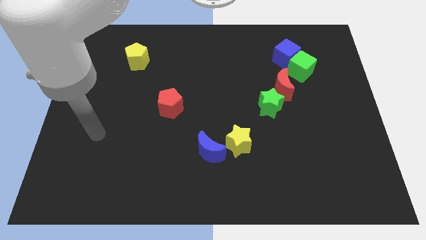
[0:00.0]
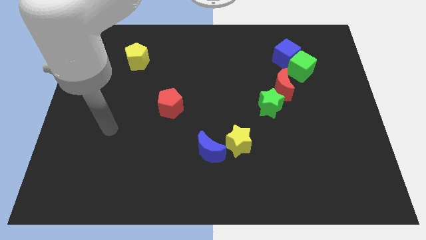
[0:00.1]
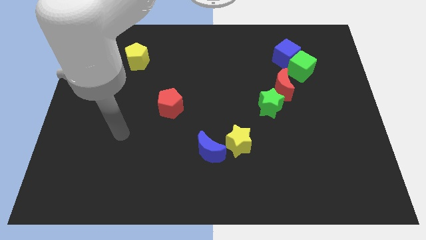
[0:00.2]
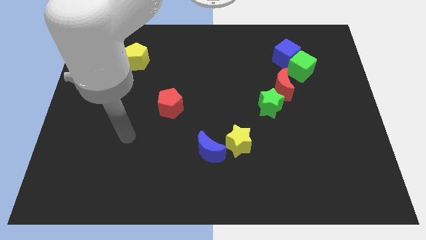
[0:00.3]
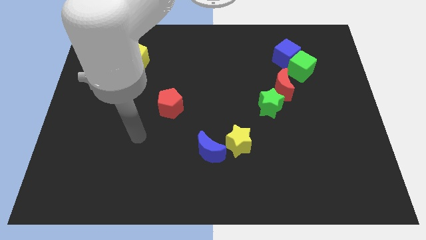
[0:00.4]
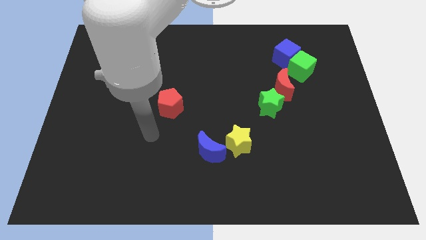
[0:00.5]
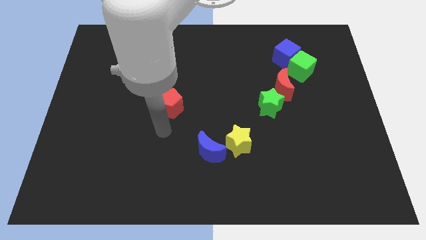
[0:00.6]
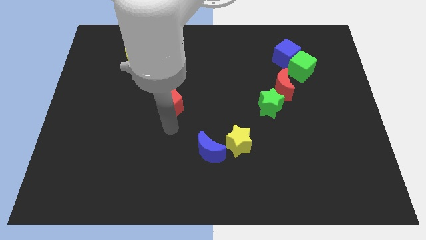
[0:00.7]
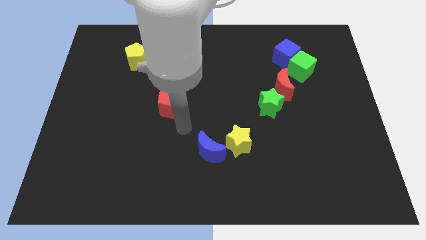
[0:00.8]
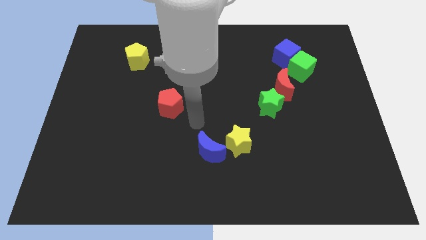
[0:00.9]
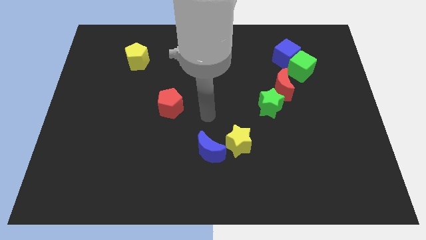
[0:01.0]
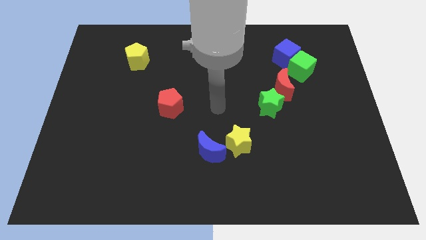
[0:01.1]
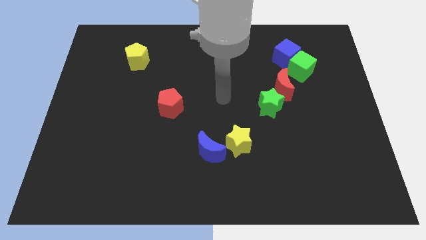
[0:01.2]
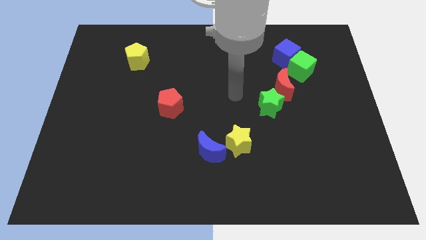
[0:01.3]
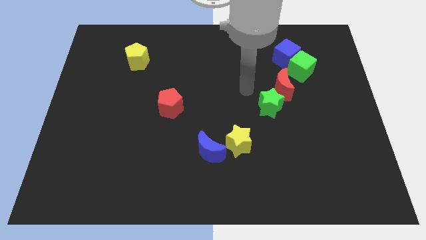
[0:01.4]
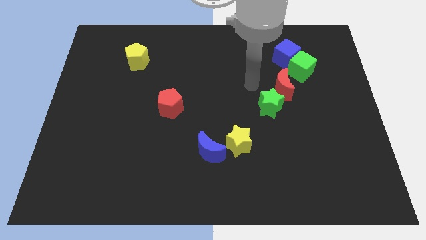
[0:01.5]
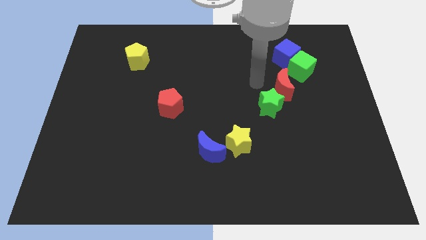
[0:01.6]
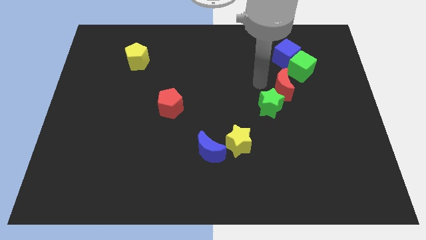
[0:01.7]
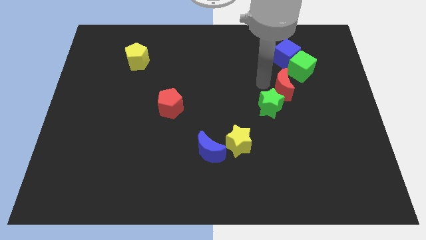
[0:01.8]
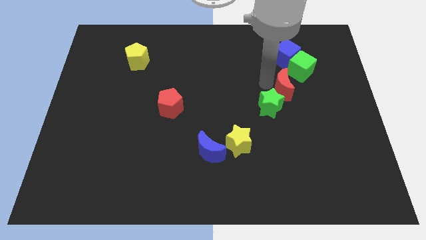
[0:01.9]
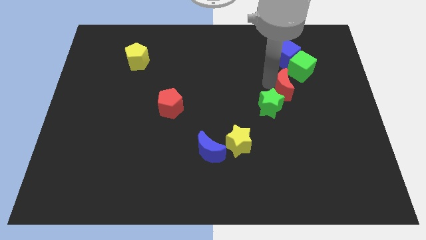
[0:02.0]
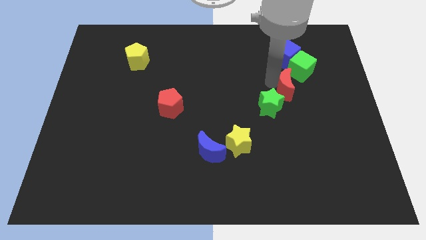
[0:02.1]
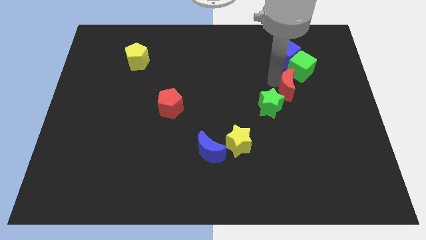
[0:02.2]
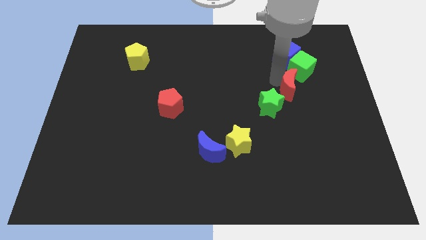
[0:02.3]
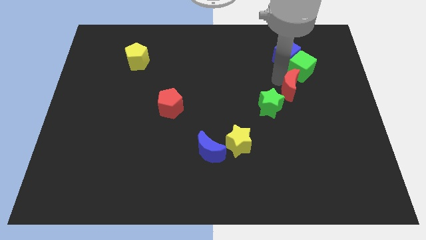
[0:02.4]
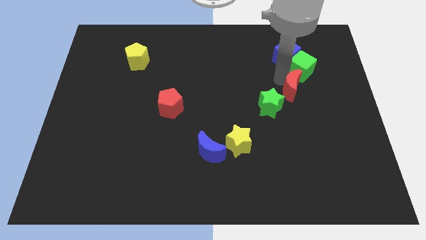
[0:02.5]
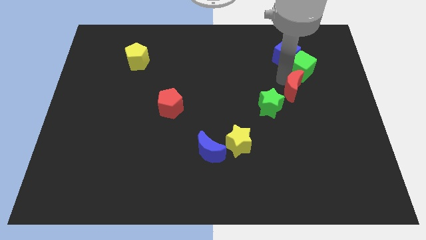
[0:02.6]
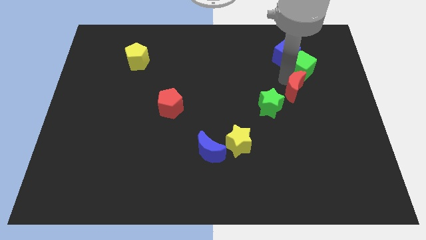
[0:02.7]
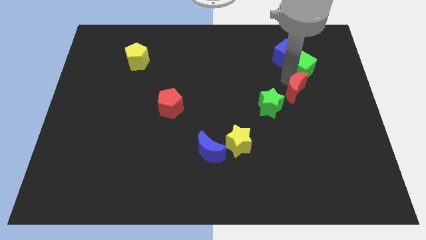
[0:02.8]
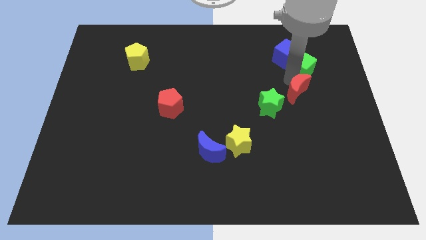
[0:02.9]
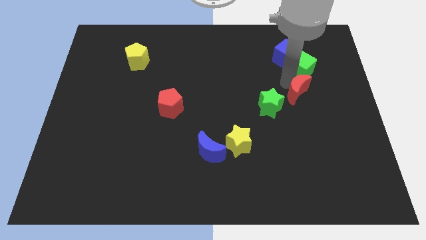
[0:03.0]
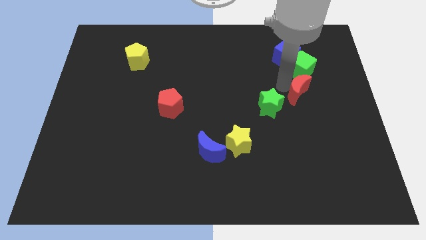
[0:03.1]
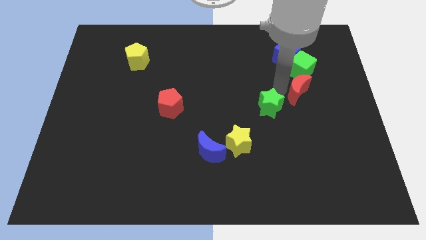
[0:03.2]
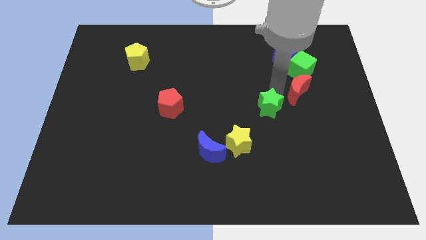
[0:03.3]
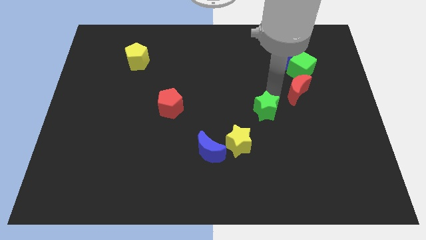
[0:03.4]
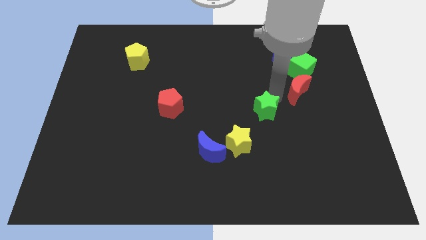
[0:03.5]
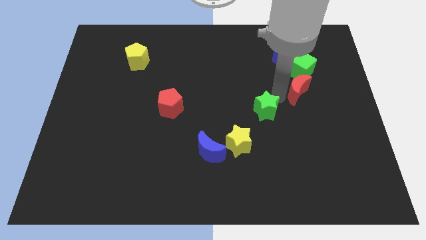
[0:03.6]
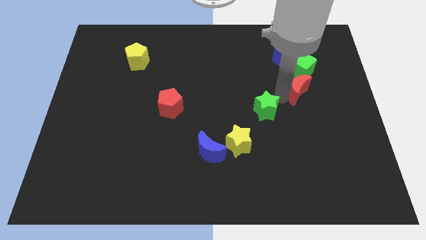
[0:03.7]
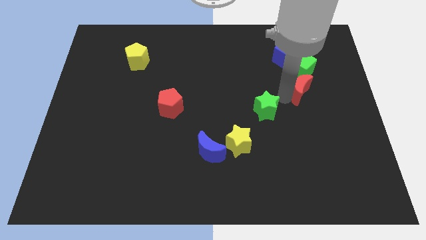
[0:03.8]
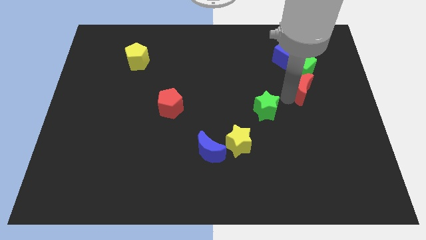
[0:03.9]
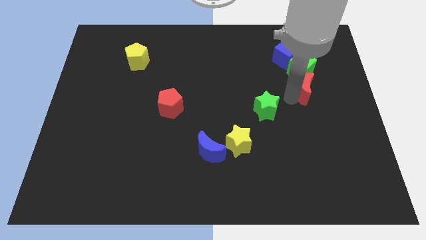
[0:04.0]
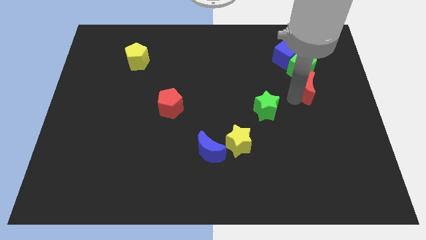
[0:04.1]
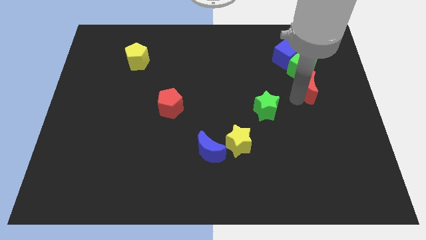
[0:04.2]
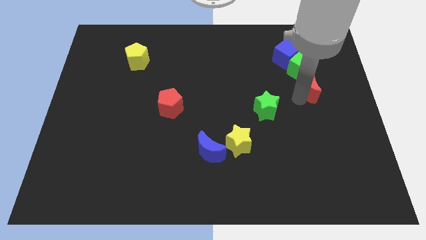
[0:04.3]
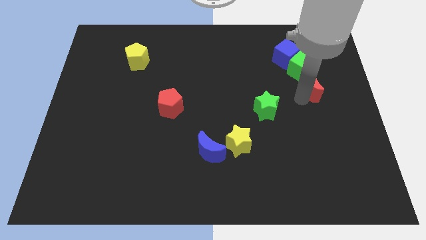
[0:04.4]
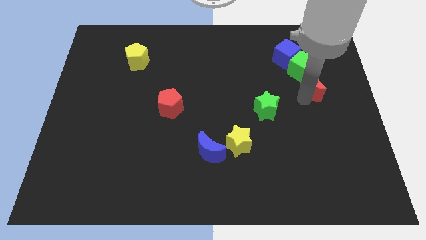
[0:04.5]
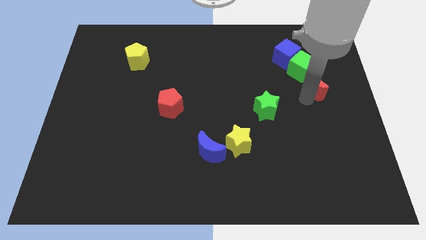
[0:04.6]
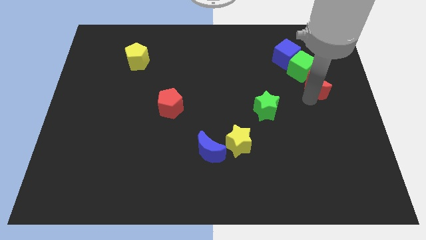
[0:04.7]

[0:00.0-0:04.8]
put the red moon diagonally down and to the right of the blue cube

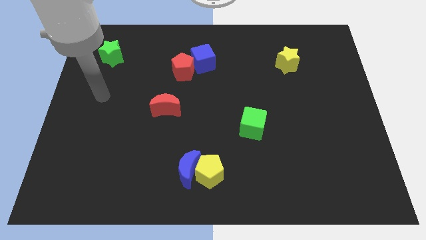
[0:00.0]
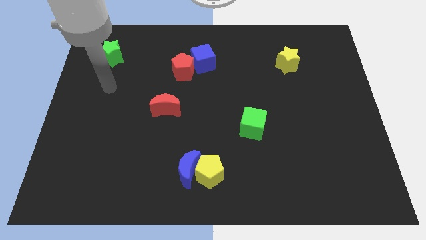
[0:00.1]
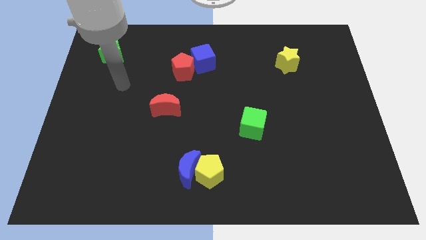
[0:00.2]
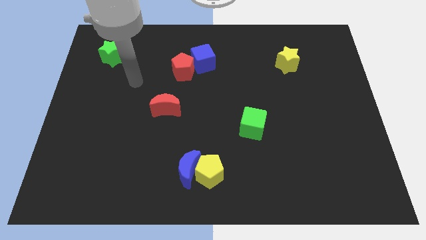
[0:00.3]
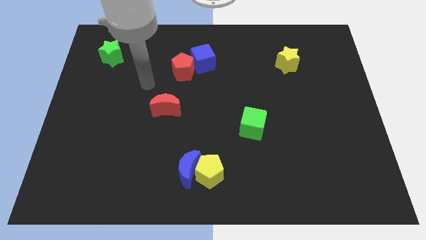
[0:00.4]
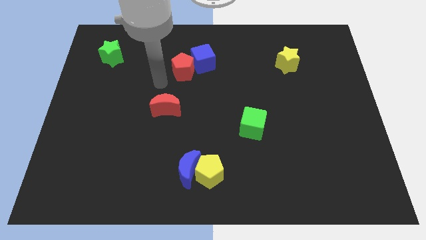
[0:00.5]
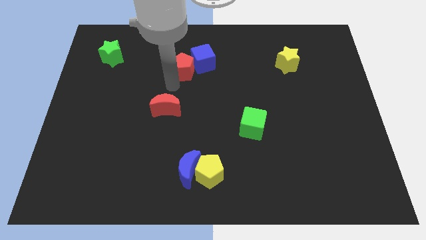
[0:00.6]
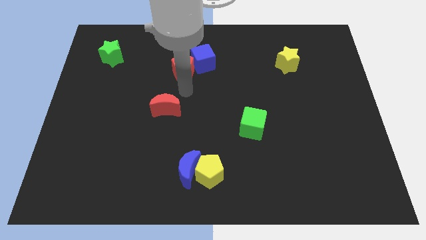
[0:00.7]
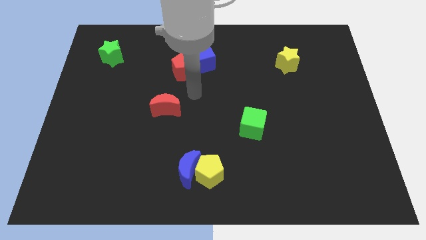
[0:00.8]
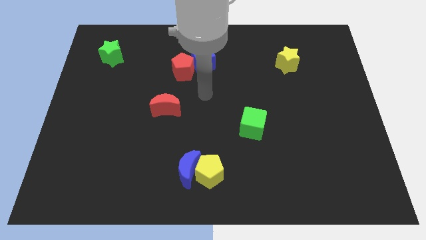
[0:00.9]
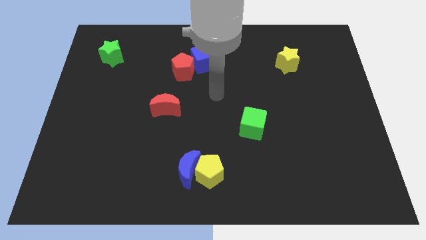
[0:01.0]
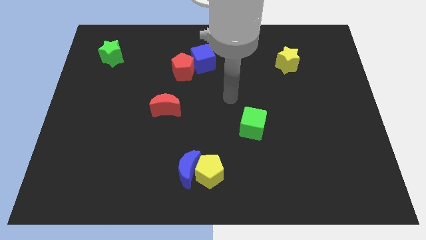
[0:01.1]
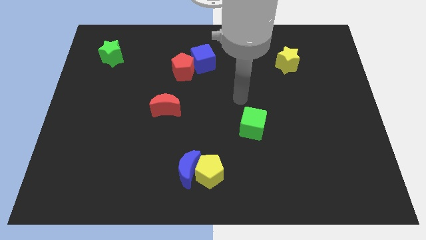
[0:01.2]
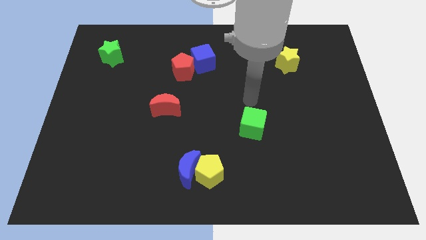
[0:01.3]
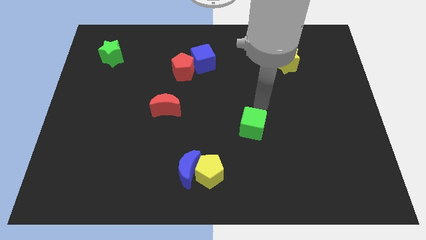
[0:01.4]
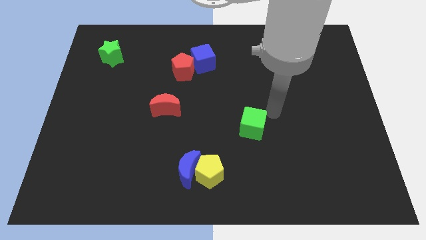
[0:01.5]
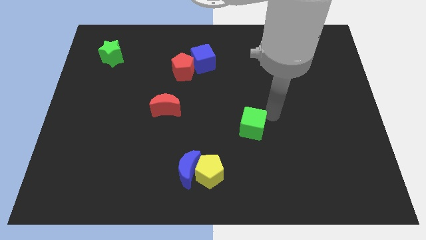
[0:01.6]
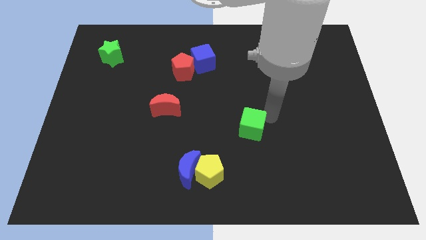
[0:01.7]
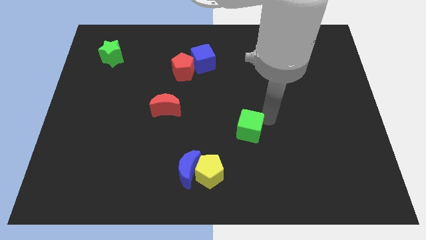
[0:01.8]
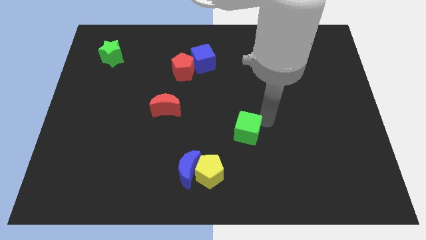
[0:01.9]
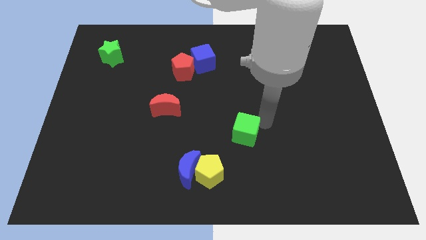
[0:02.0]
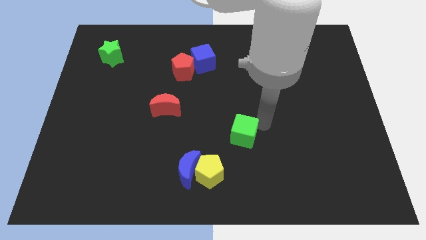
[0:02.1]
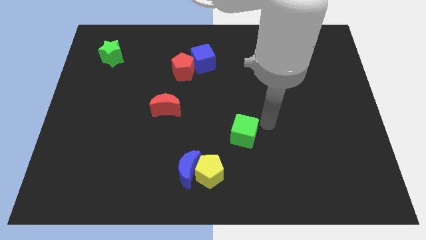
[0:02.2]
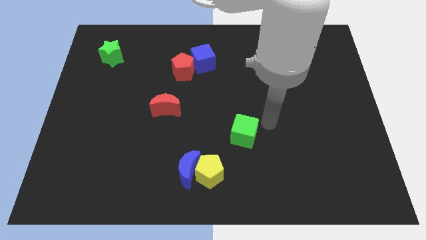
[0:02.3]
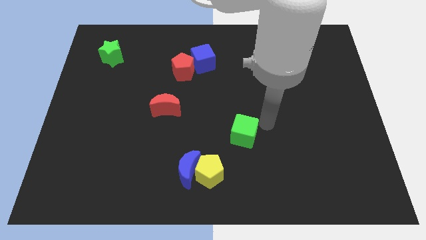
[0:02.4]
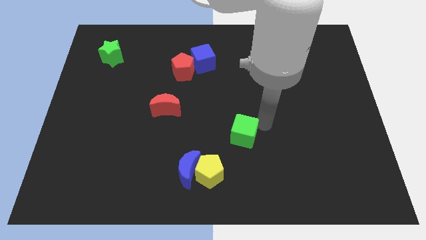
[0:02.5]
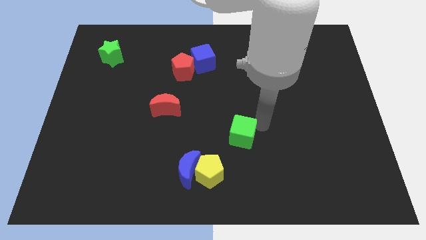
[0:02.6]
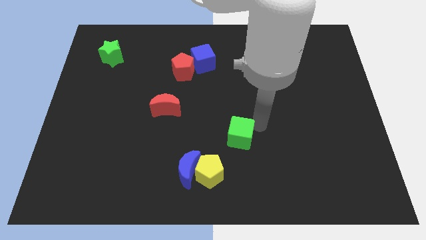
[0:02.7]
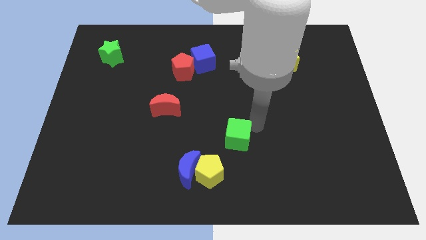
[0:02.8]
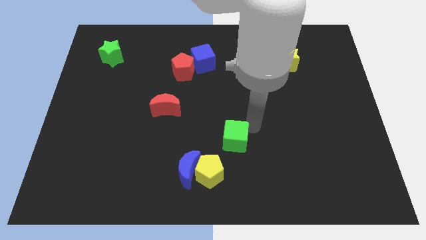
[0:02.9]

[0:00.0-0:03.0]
push the green cube to the top right of the blue moon
